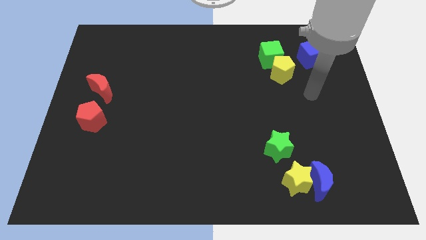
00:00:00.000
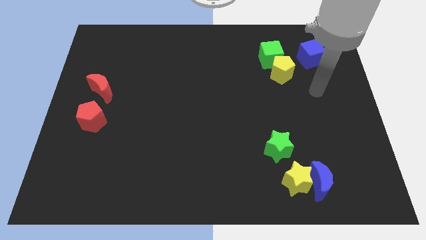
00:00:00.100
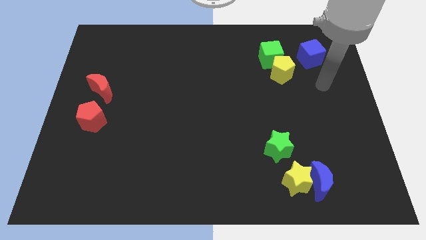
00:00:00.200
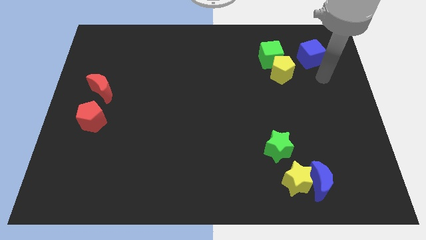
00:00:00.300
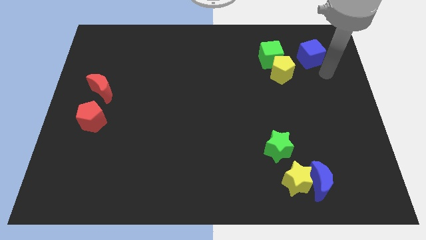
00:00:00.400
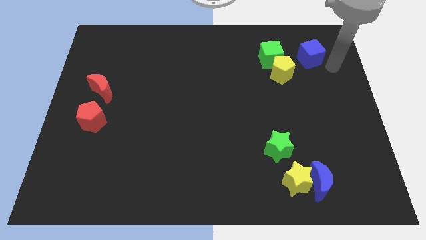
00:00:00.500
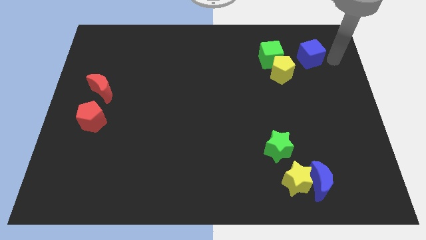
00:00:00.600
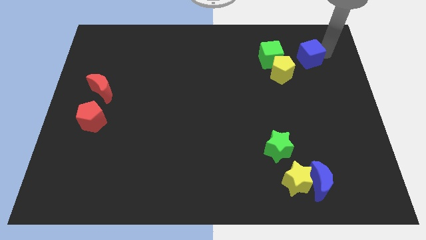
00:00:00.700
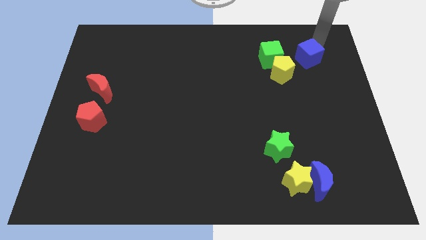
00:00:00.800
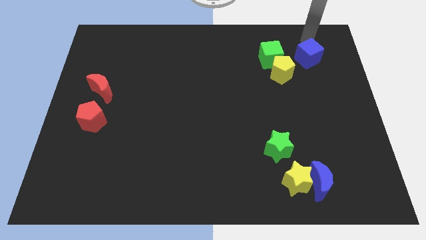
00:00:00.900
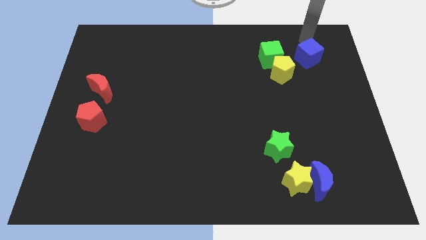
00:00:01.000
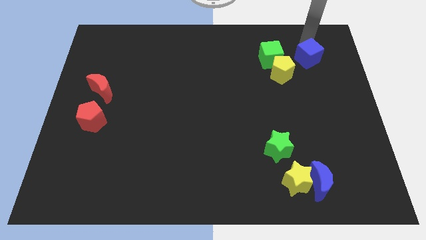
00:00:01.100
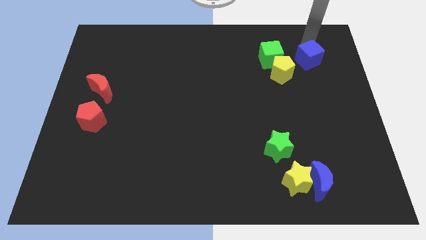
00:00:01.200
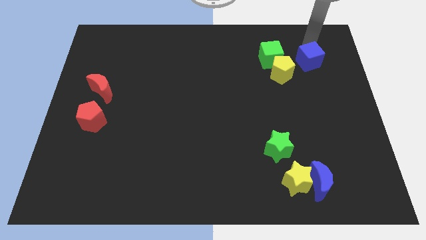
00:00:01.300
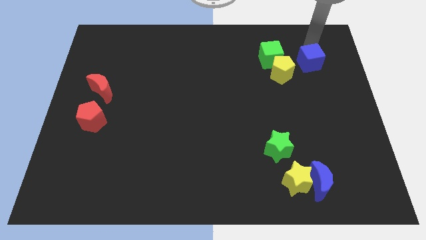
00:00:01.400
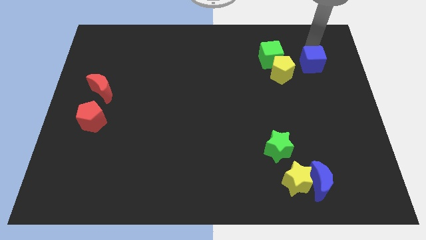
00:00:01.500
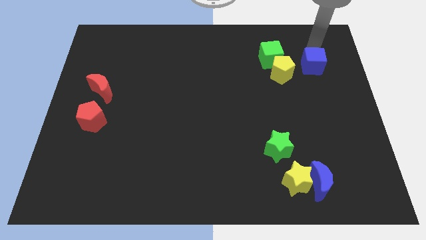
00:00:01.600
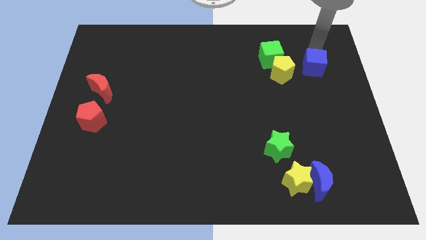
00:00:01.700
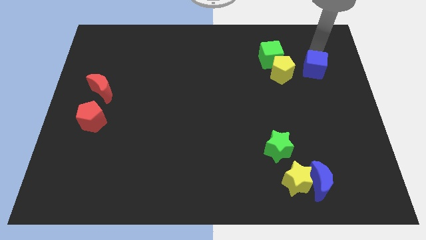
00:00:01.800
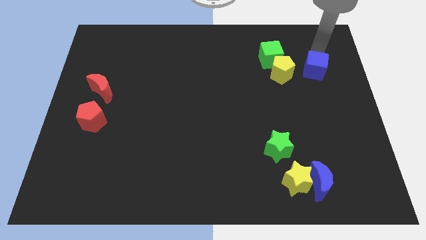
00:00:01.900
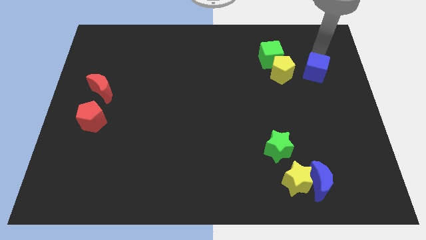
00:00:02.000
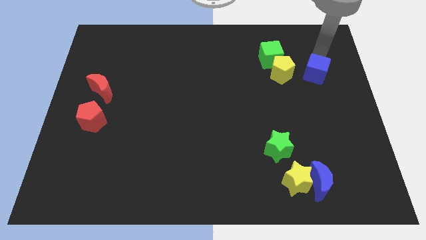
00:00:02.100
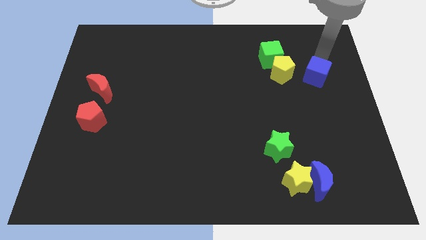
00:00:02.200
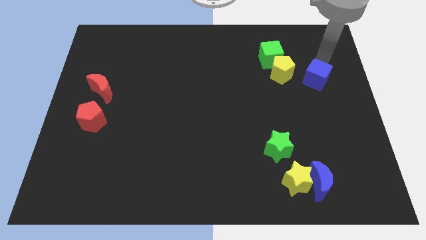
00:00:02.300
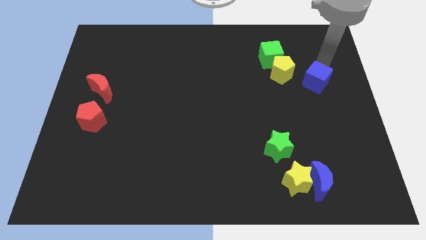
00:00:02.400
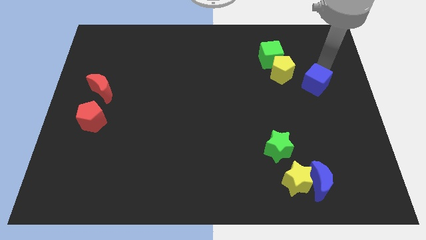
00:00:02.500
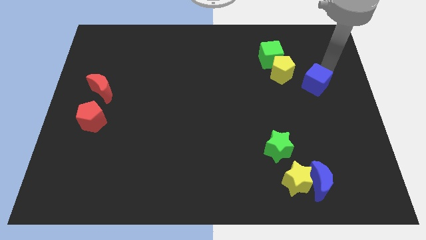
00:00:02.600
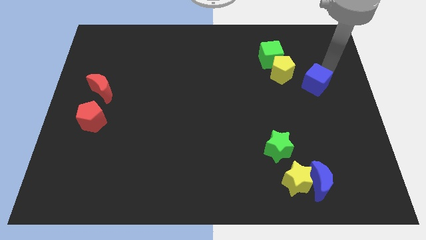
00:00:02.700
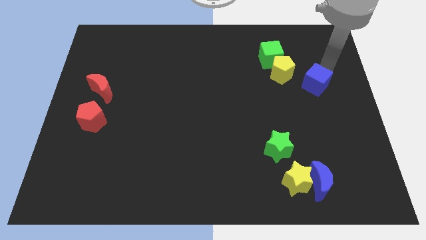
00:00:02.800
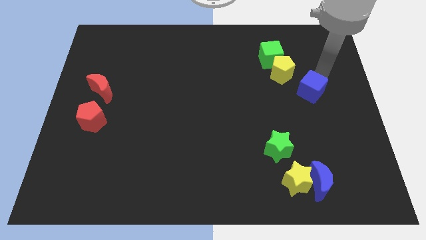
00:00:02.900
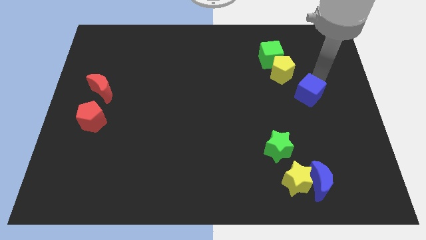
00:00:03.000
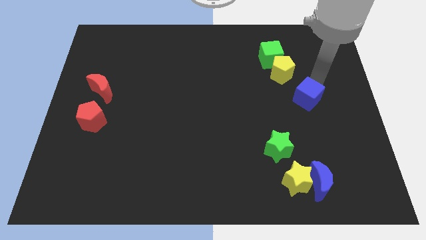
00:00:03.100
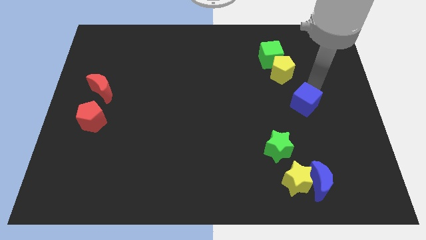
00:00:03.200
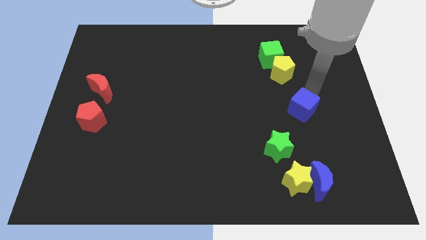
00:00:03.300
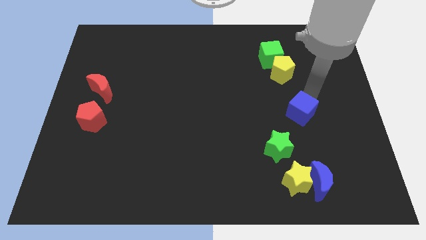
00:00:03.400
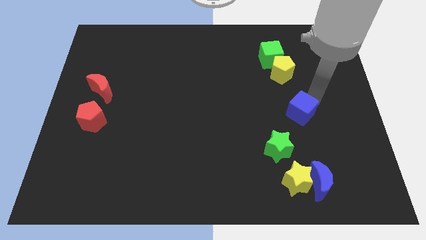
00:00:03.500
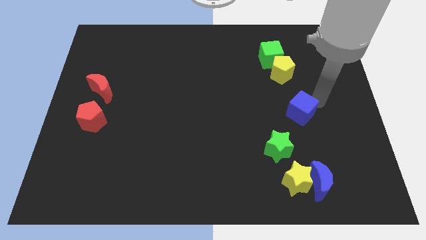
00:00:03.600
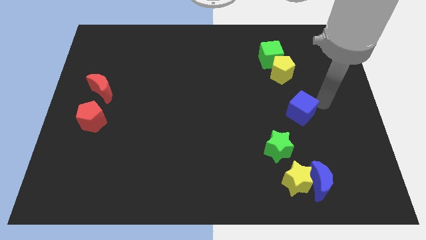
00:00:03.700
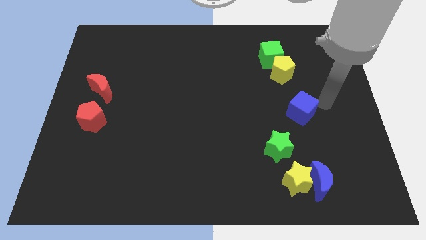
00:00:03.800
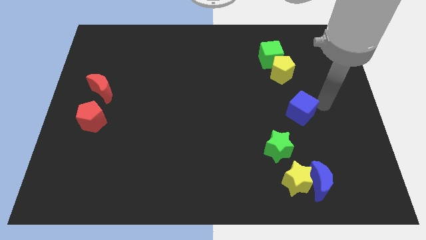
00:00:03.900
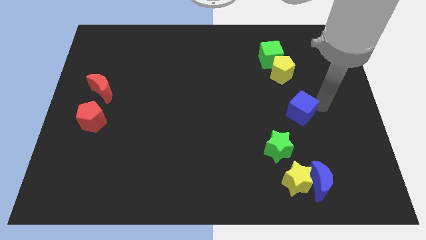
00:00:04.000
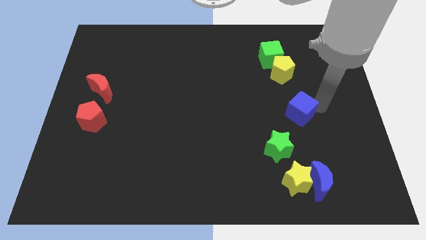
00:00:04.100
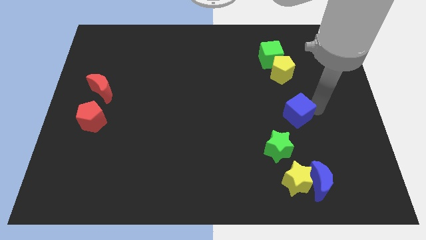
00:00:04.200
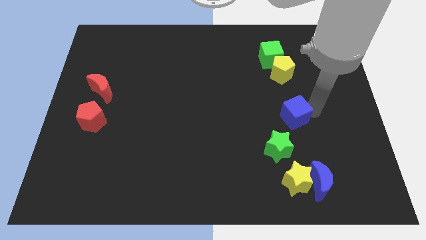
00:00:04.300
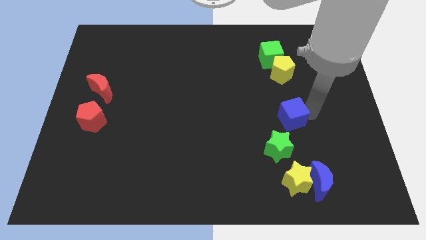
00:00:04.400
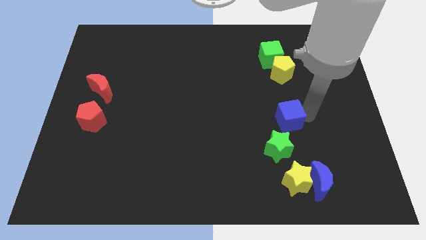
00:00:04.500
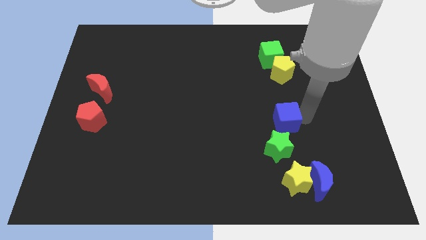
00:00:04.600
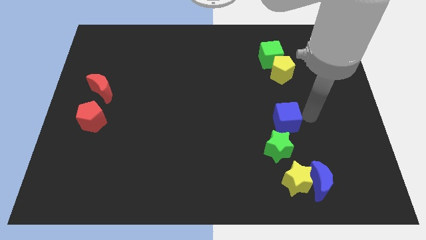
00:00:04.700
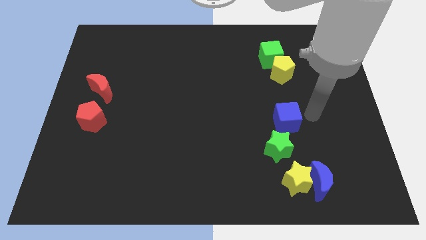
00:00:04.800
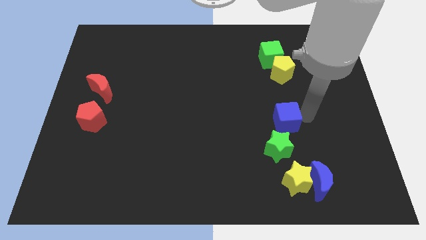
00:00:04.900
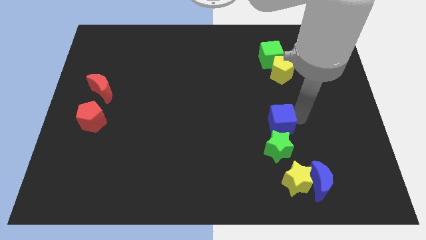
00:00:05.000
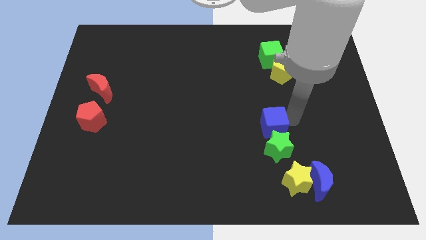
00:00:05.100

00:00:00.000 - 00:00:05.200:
slide the blue cube downwards and then to the left

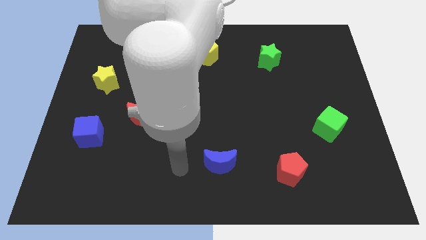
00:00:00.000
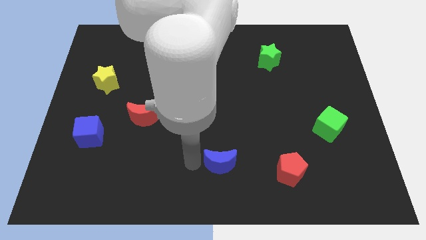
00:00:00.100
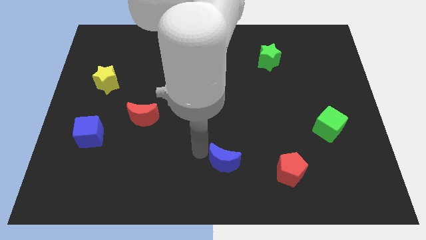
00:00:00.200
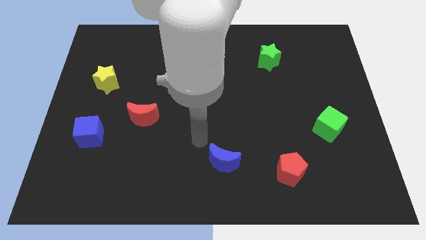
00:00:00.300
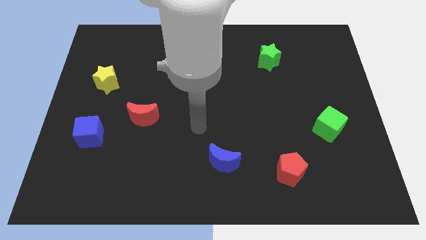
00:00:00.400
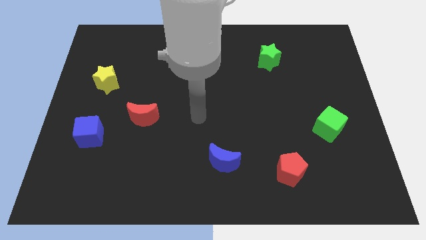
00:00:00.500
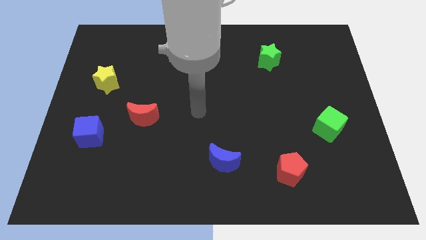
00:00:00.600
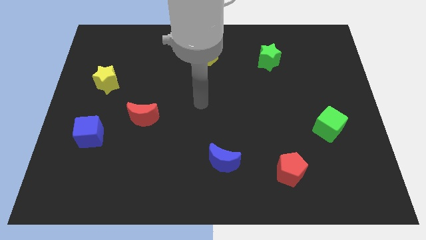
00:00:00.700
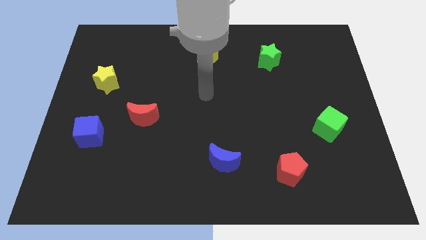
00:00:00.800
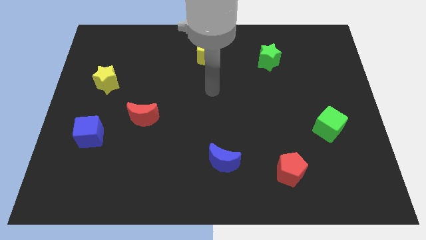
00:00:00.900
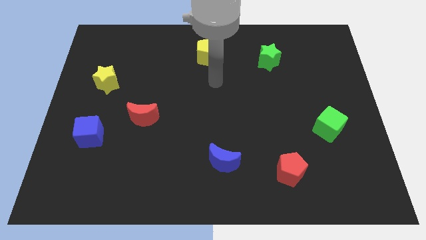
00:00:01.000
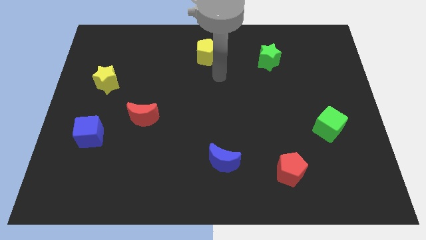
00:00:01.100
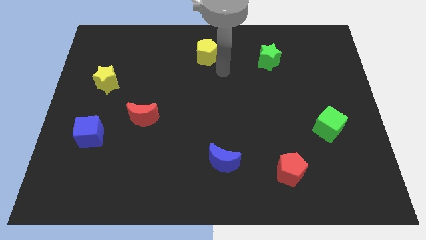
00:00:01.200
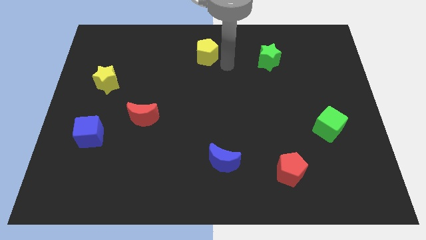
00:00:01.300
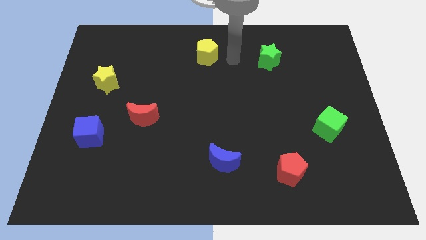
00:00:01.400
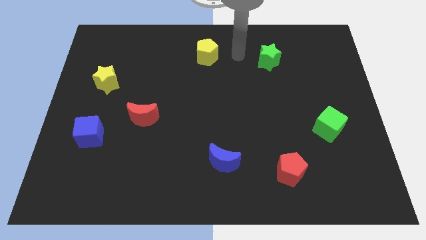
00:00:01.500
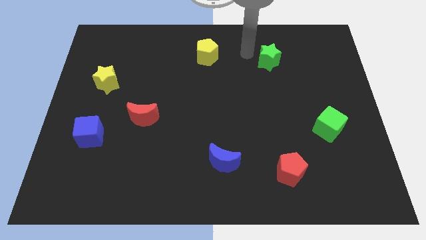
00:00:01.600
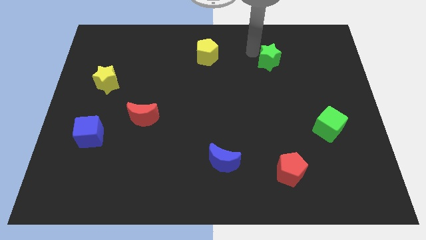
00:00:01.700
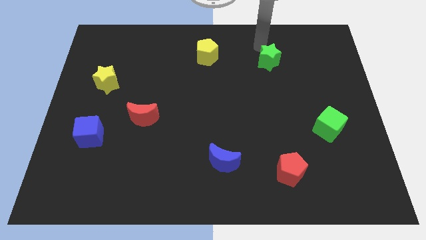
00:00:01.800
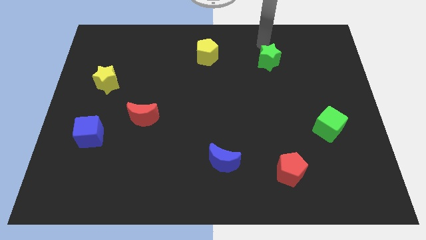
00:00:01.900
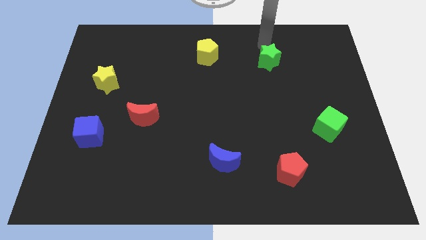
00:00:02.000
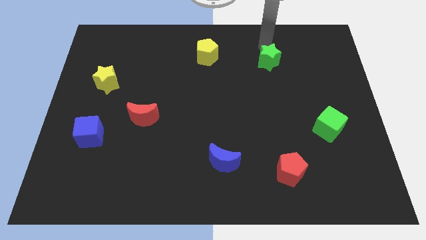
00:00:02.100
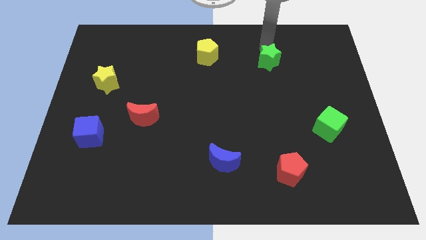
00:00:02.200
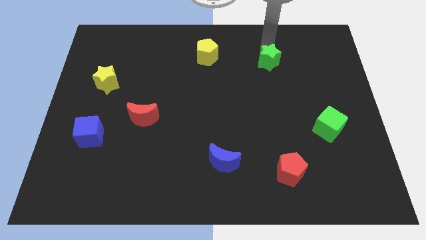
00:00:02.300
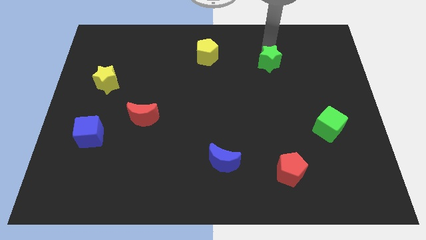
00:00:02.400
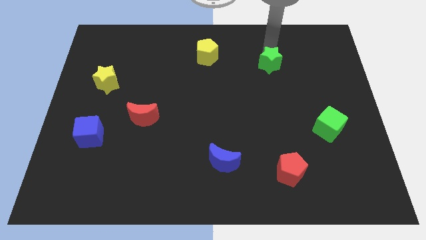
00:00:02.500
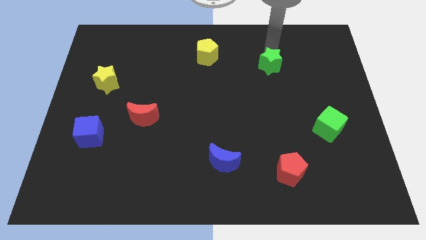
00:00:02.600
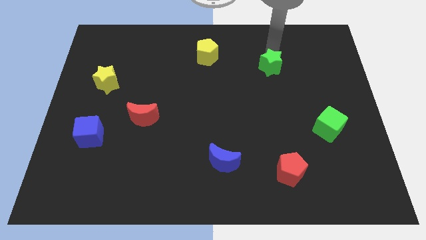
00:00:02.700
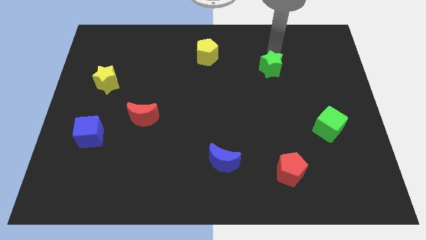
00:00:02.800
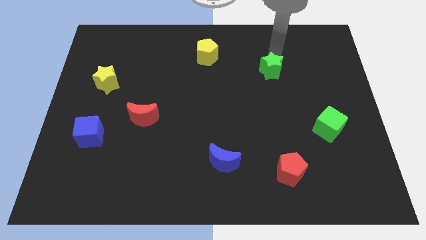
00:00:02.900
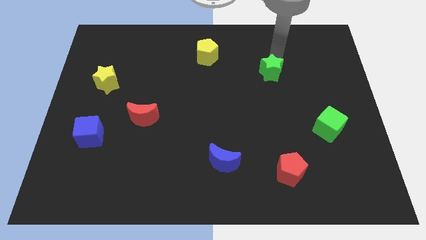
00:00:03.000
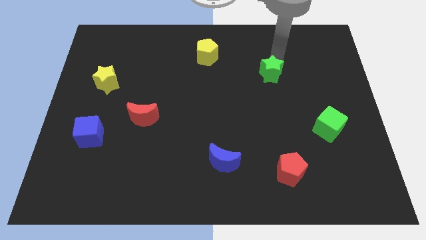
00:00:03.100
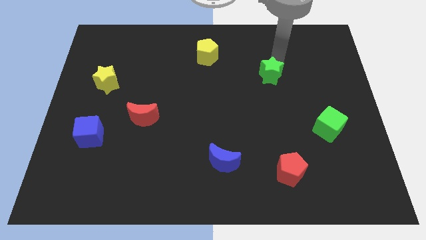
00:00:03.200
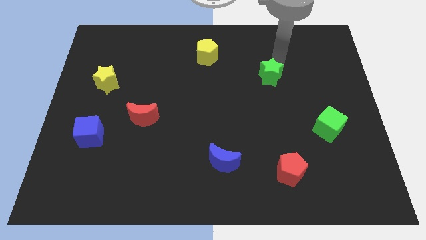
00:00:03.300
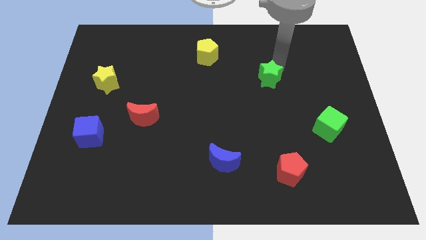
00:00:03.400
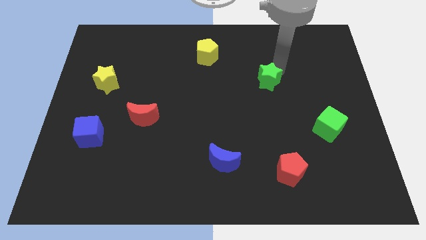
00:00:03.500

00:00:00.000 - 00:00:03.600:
slightly move the green star downwards
